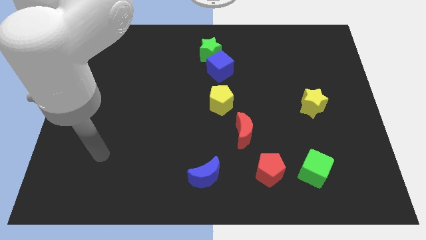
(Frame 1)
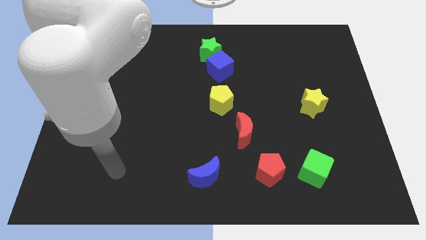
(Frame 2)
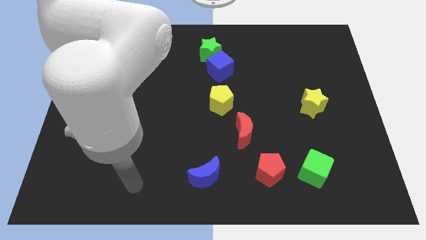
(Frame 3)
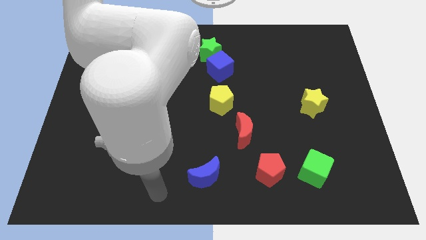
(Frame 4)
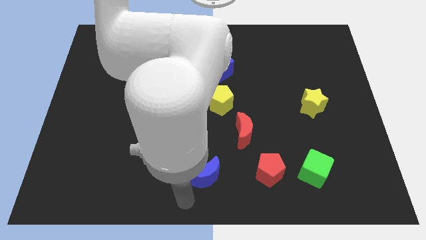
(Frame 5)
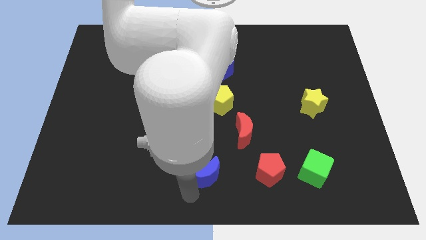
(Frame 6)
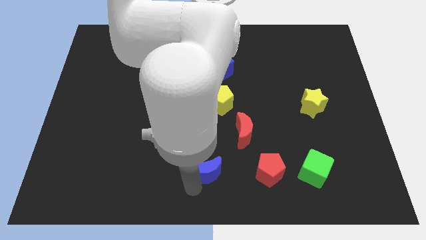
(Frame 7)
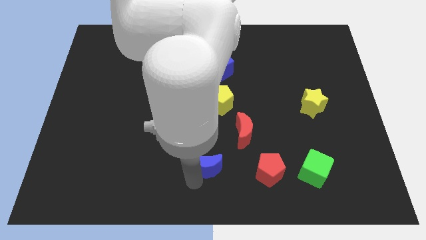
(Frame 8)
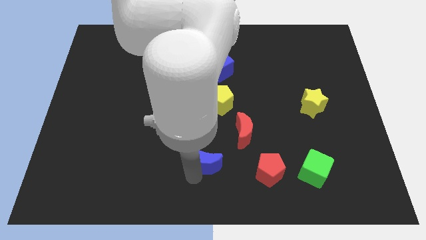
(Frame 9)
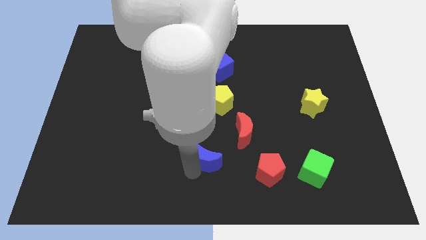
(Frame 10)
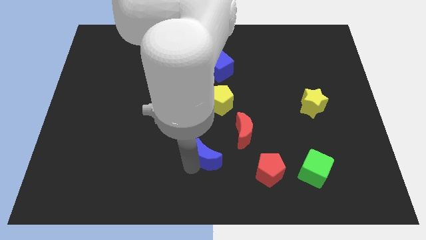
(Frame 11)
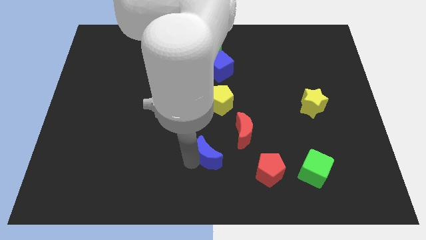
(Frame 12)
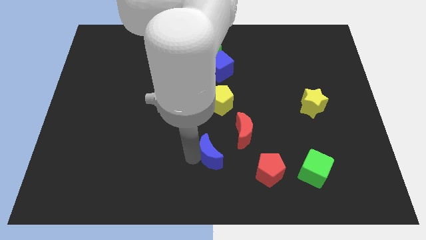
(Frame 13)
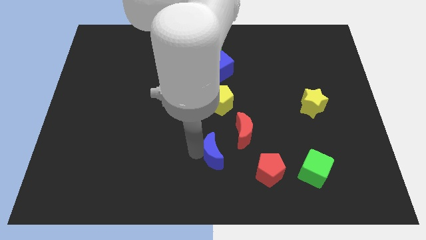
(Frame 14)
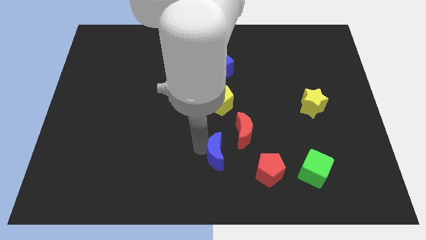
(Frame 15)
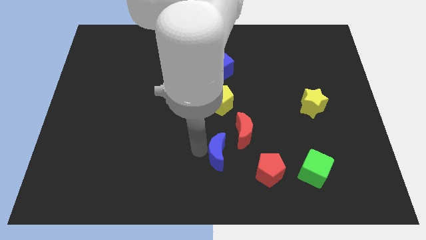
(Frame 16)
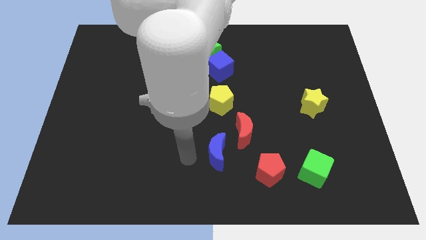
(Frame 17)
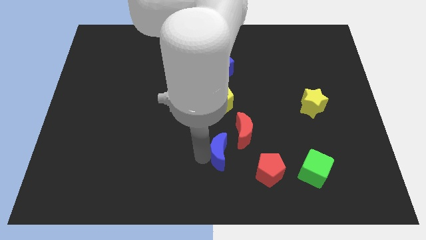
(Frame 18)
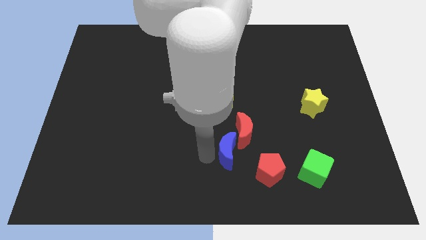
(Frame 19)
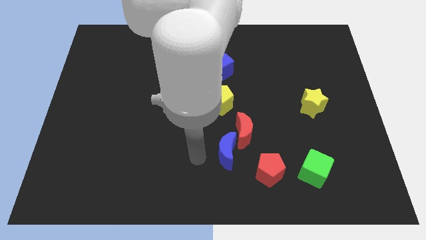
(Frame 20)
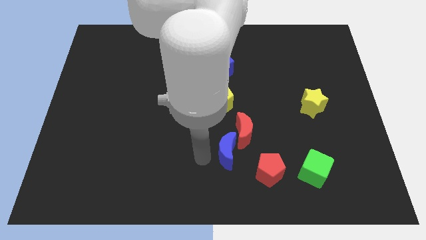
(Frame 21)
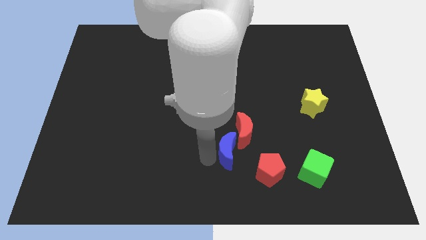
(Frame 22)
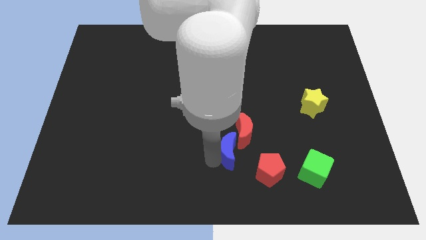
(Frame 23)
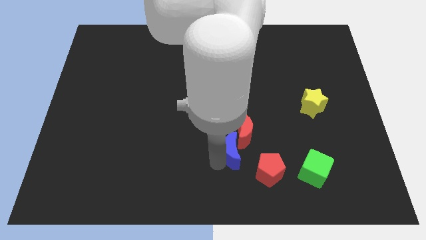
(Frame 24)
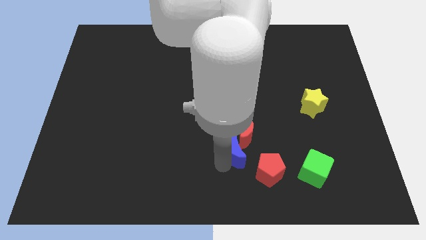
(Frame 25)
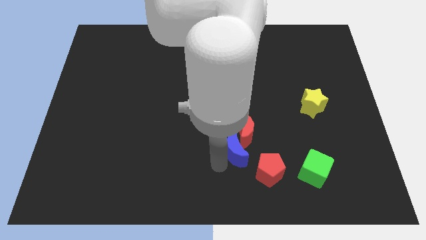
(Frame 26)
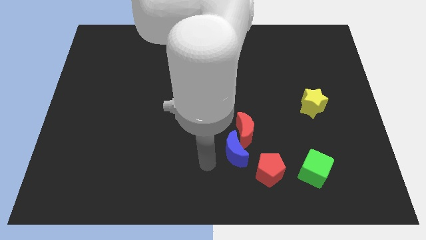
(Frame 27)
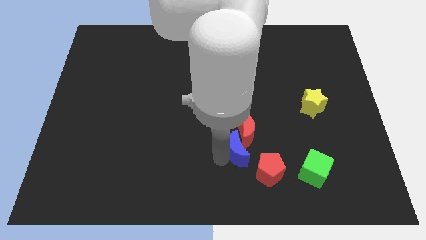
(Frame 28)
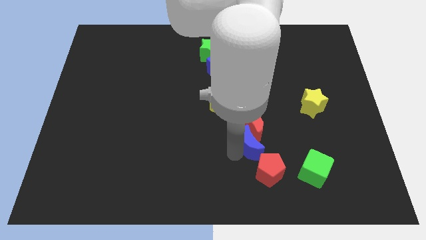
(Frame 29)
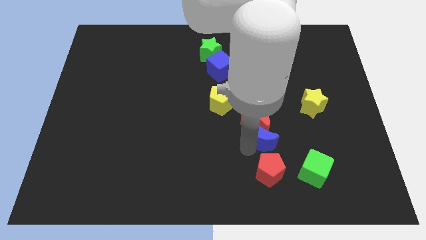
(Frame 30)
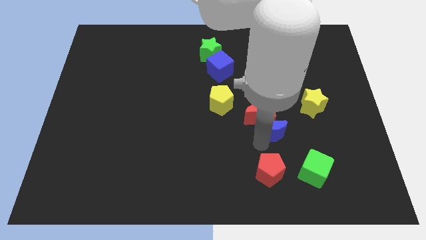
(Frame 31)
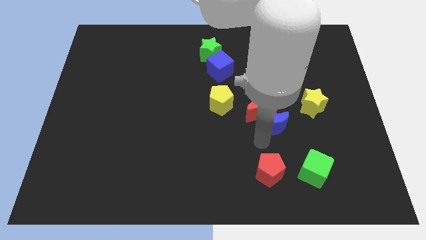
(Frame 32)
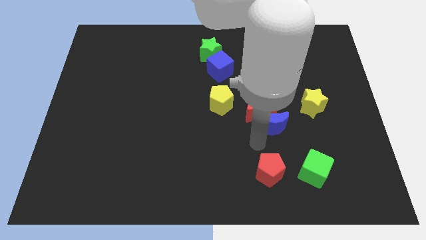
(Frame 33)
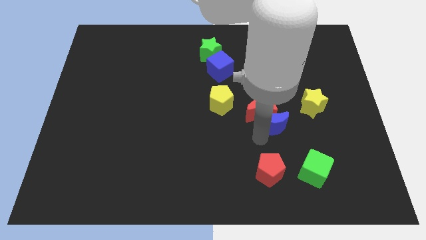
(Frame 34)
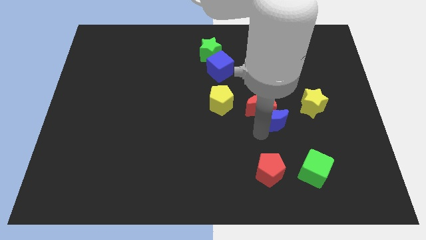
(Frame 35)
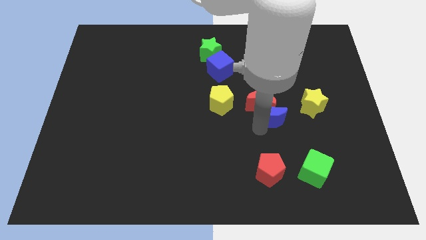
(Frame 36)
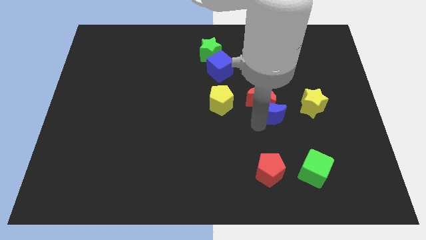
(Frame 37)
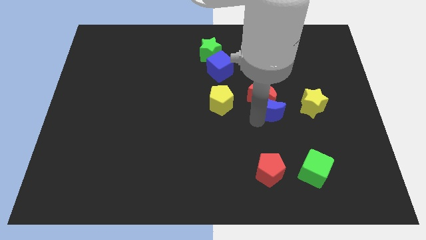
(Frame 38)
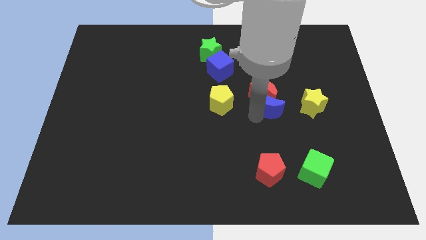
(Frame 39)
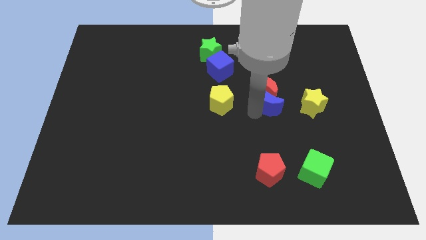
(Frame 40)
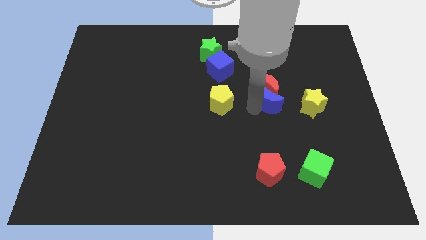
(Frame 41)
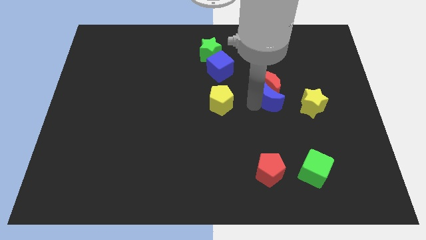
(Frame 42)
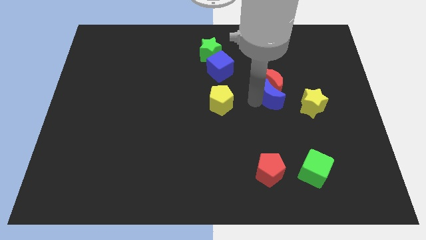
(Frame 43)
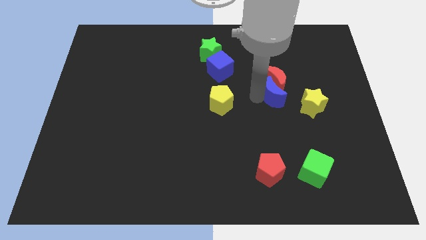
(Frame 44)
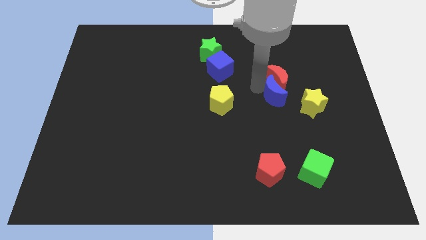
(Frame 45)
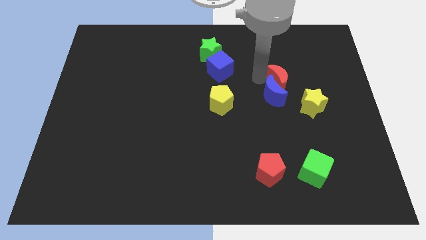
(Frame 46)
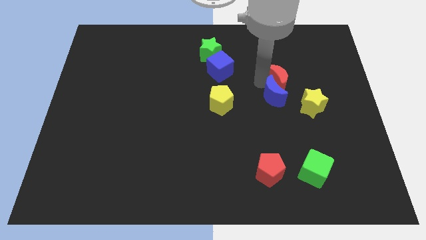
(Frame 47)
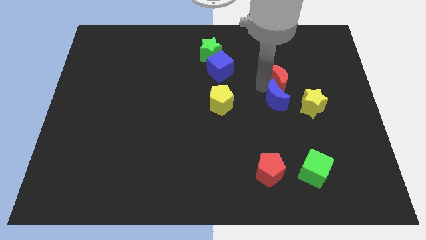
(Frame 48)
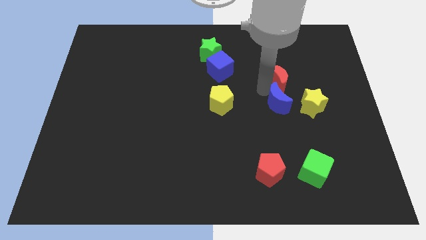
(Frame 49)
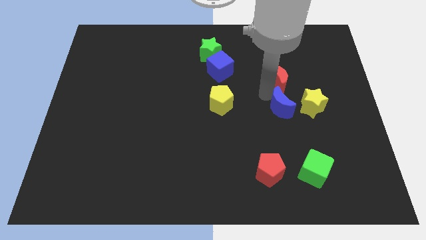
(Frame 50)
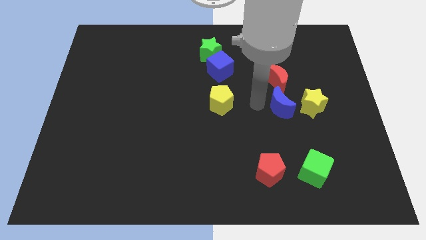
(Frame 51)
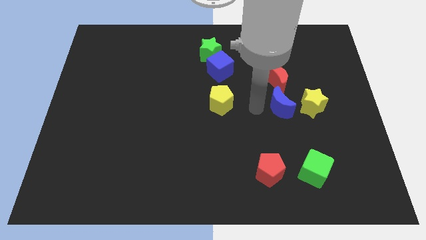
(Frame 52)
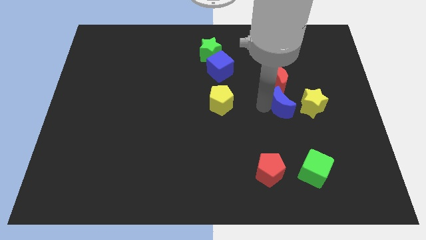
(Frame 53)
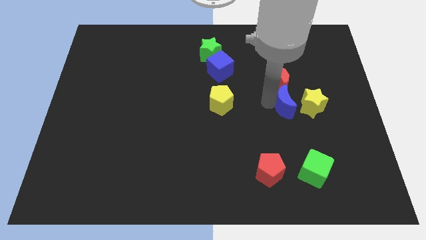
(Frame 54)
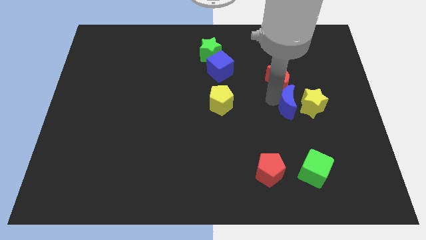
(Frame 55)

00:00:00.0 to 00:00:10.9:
move the blue moon close to the yellow star

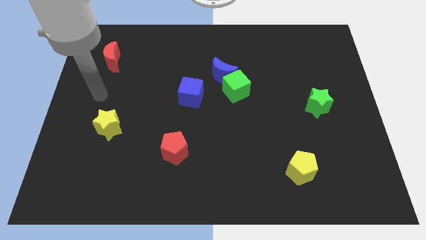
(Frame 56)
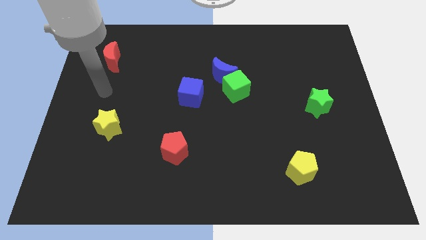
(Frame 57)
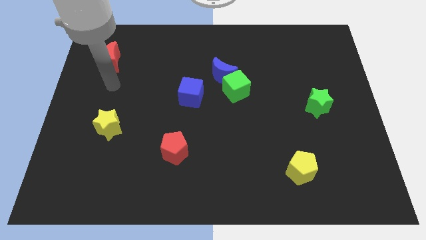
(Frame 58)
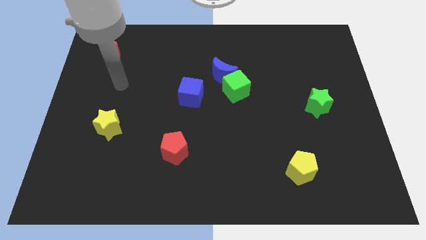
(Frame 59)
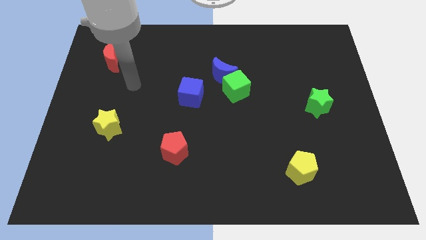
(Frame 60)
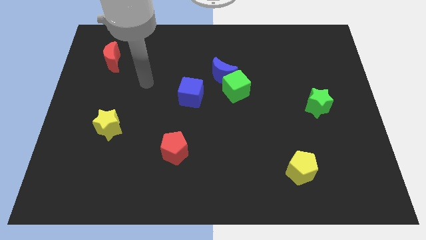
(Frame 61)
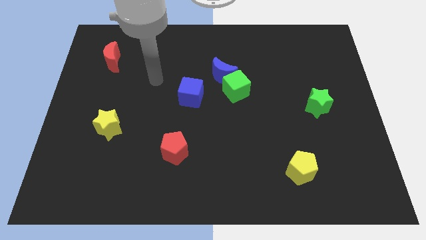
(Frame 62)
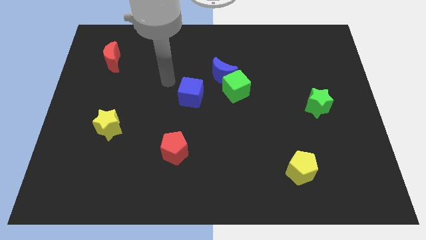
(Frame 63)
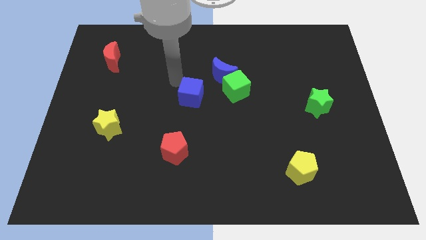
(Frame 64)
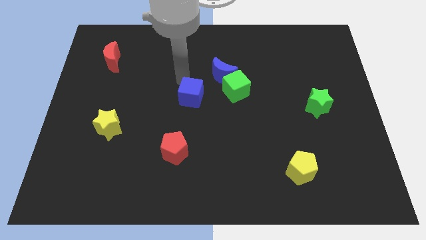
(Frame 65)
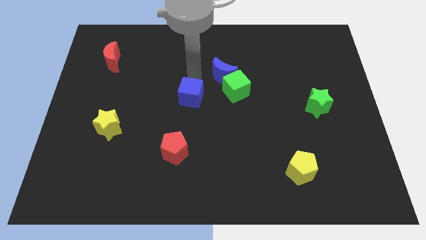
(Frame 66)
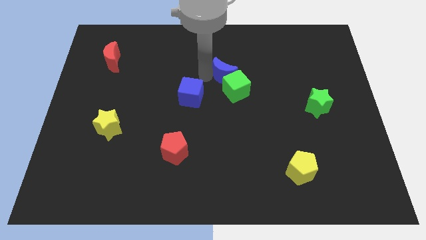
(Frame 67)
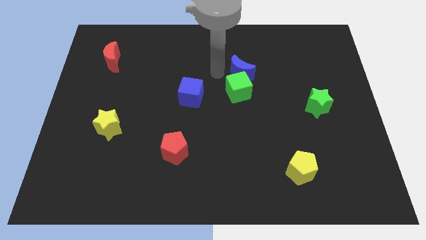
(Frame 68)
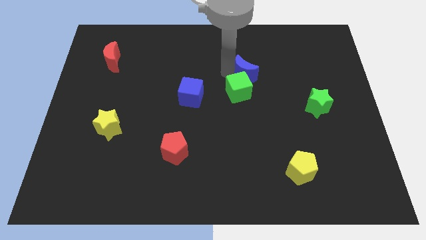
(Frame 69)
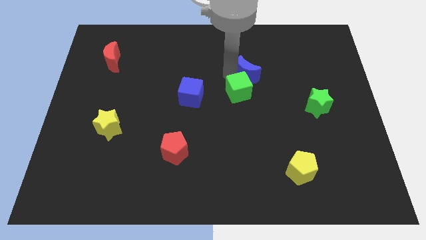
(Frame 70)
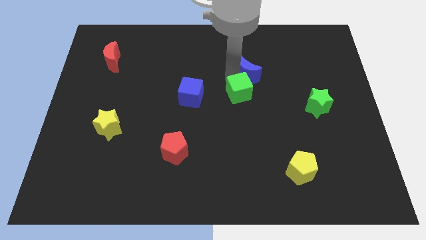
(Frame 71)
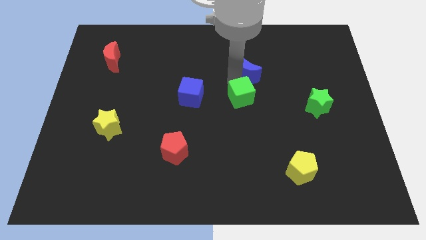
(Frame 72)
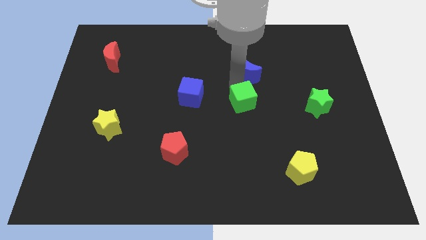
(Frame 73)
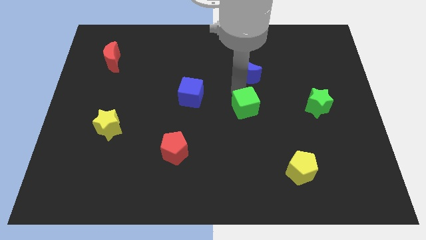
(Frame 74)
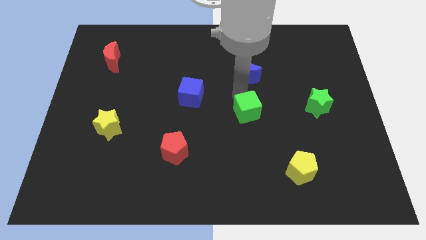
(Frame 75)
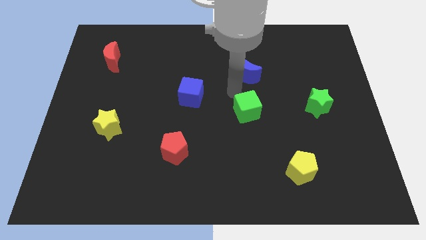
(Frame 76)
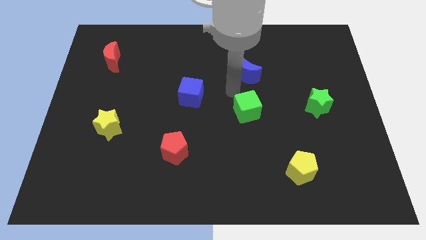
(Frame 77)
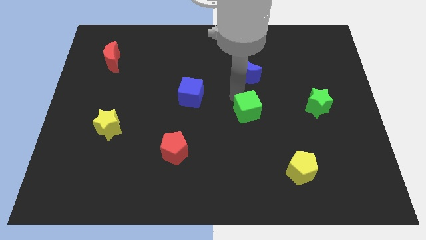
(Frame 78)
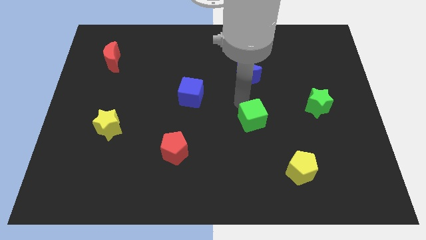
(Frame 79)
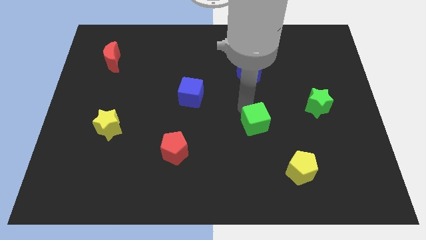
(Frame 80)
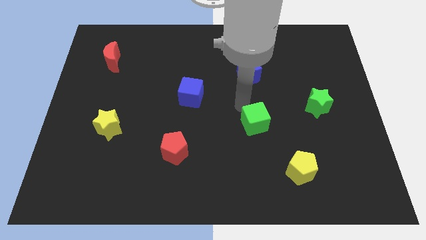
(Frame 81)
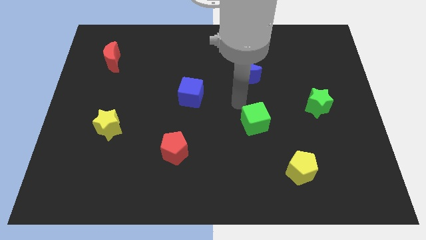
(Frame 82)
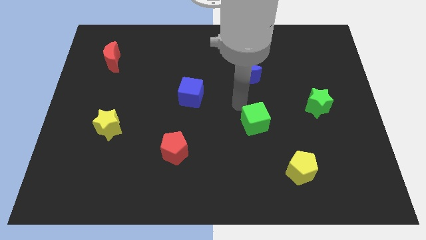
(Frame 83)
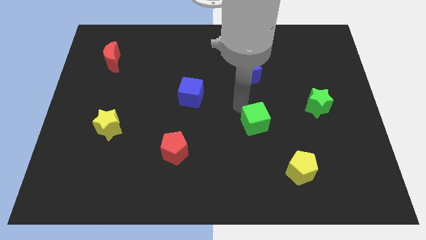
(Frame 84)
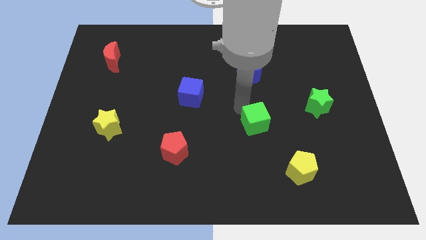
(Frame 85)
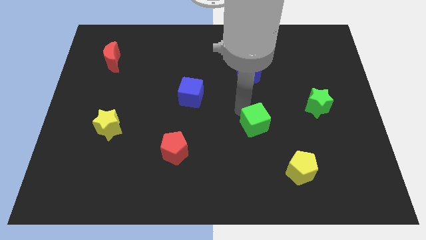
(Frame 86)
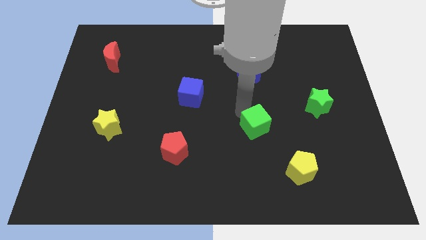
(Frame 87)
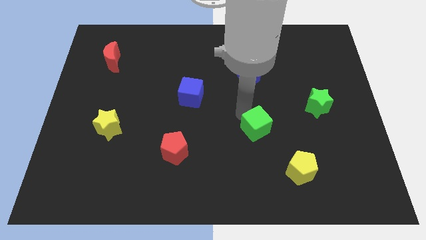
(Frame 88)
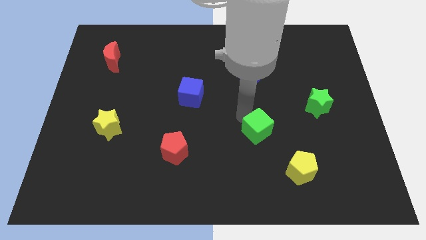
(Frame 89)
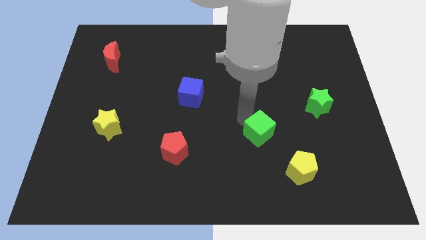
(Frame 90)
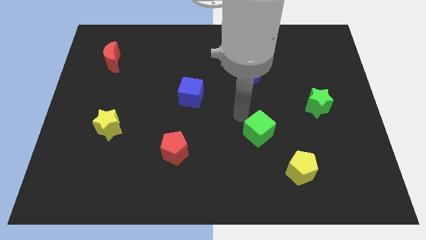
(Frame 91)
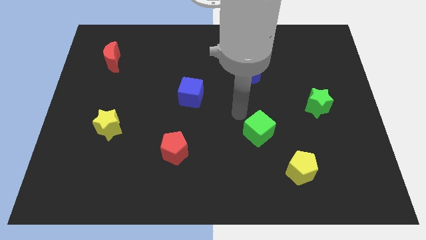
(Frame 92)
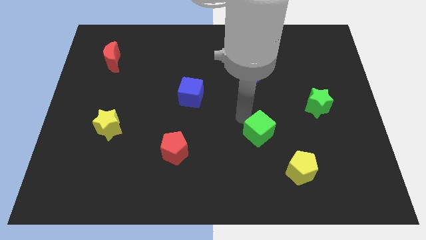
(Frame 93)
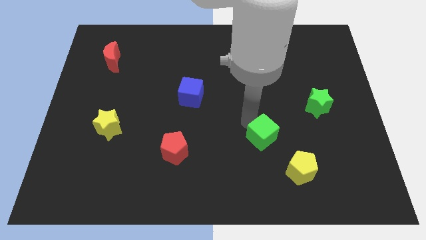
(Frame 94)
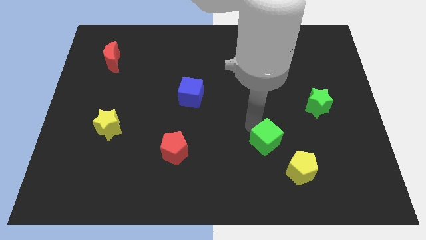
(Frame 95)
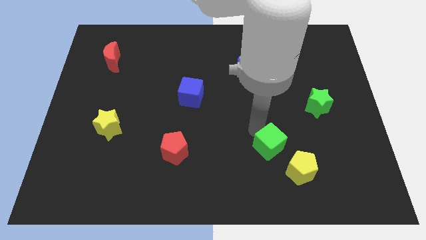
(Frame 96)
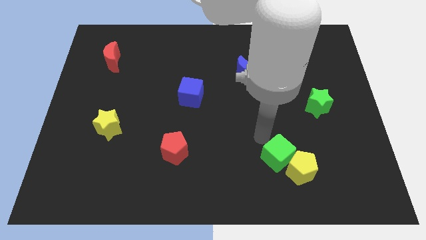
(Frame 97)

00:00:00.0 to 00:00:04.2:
push the green cube close to the yellow pentagon
